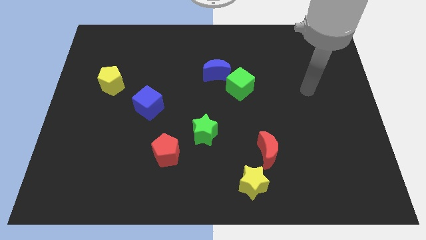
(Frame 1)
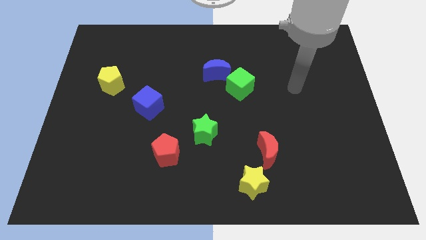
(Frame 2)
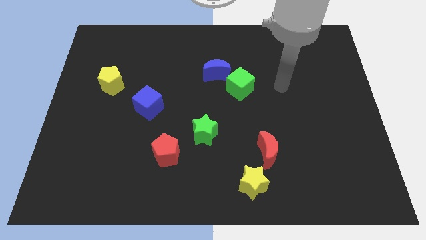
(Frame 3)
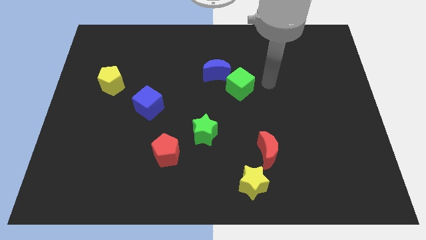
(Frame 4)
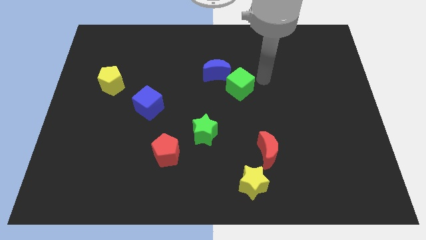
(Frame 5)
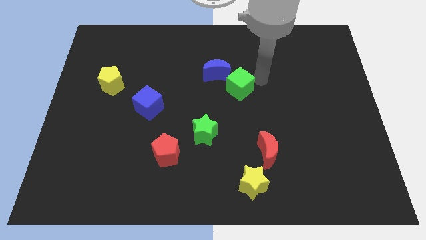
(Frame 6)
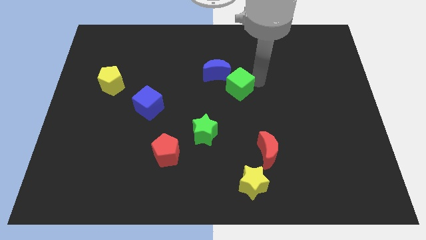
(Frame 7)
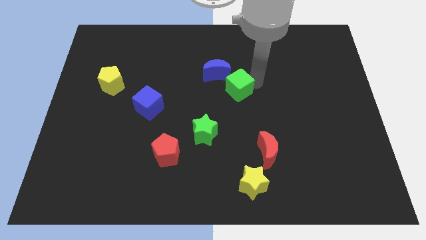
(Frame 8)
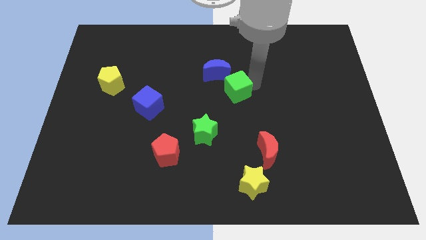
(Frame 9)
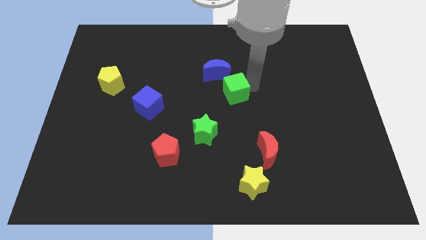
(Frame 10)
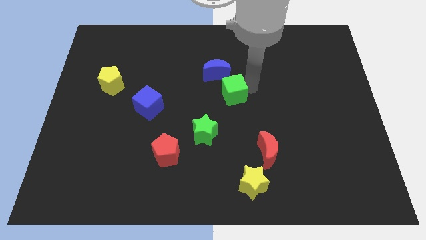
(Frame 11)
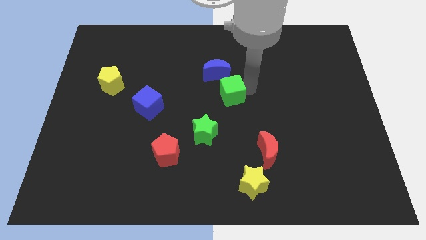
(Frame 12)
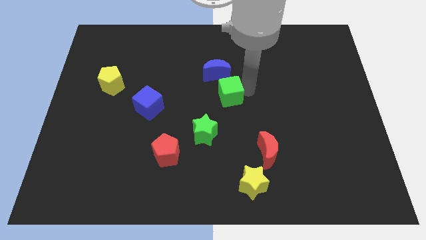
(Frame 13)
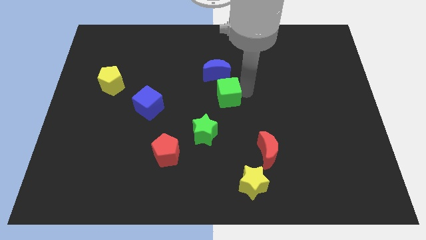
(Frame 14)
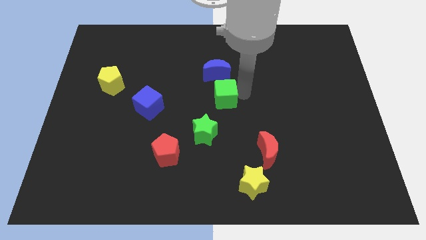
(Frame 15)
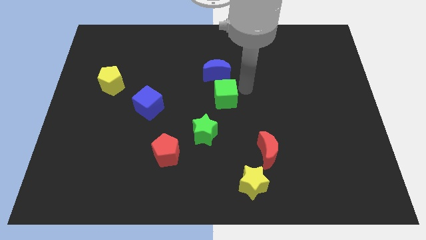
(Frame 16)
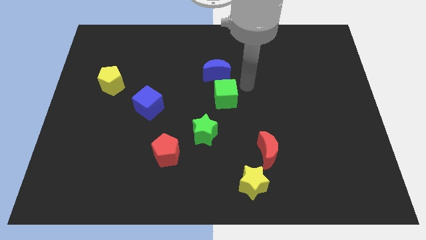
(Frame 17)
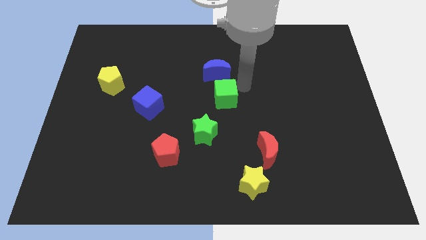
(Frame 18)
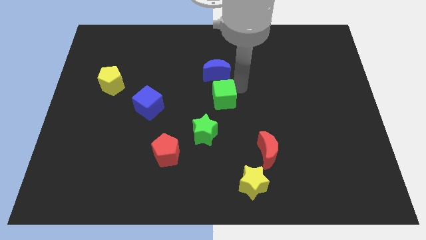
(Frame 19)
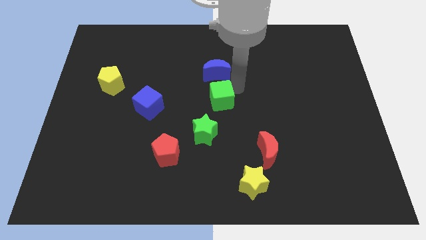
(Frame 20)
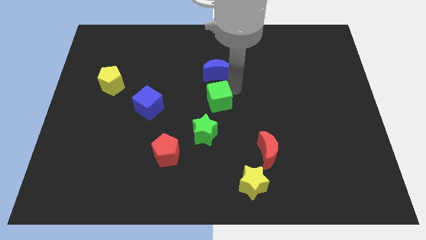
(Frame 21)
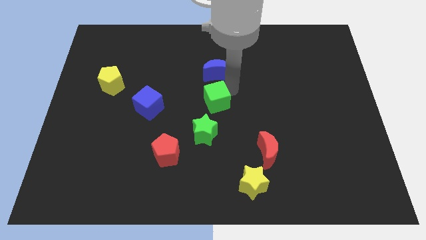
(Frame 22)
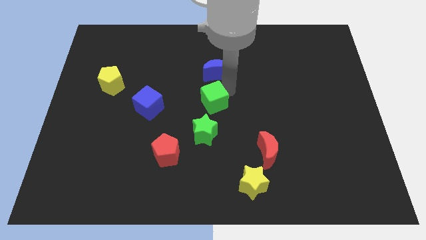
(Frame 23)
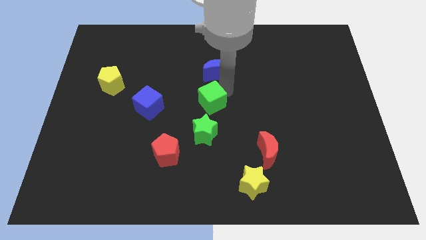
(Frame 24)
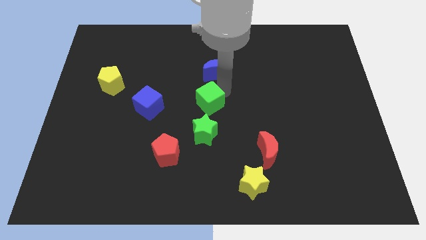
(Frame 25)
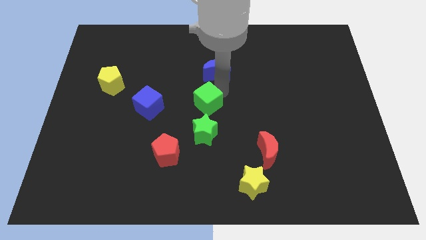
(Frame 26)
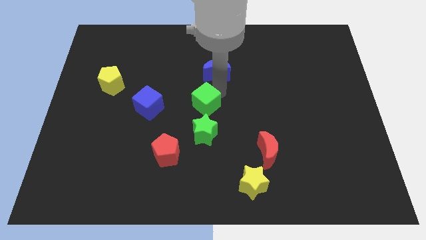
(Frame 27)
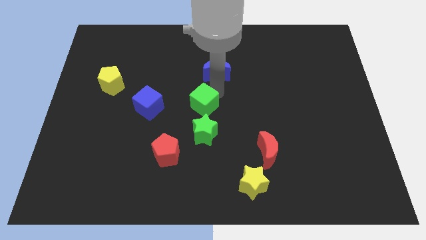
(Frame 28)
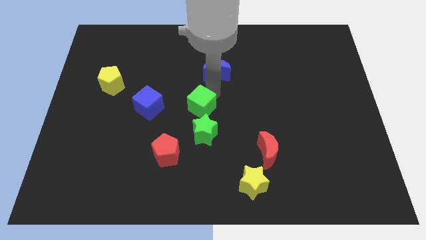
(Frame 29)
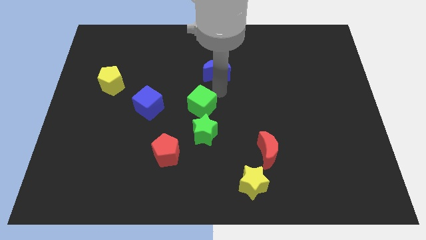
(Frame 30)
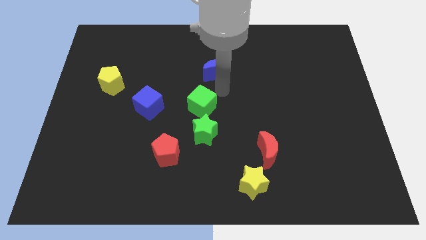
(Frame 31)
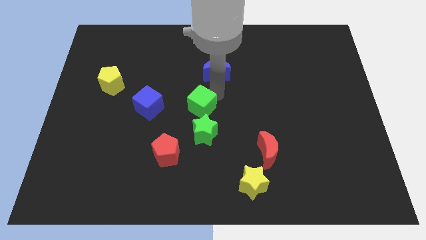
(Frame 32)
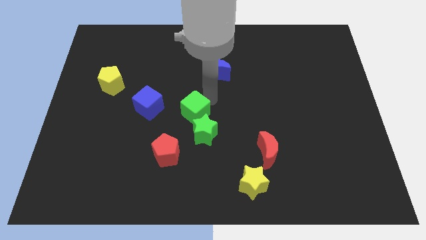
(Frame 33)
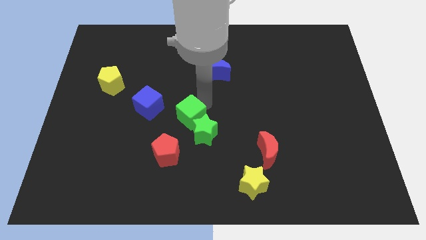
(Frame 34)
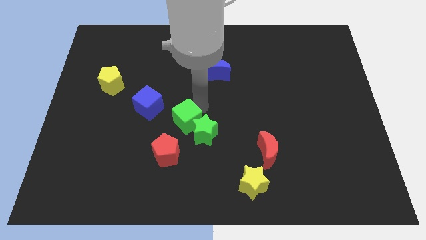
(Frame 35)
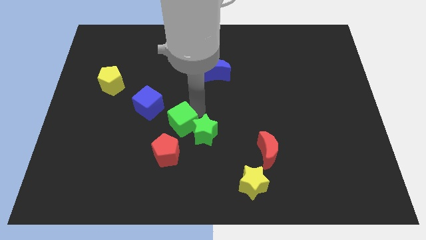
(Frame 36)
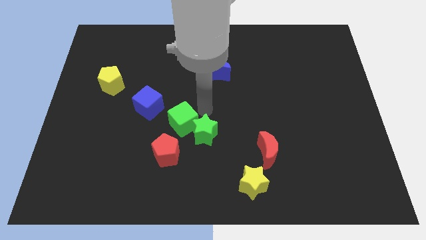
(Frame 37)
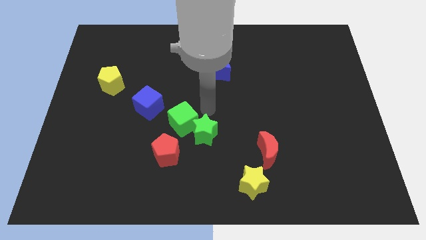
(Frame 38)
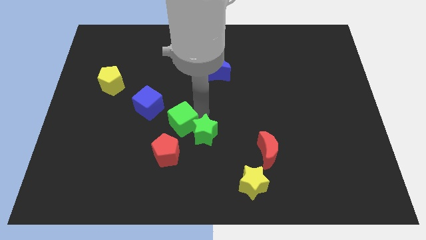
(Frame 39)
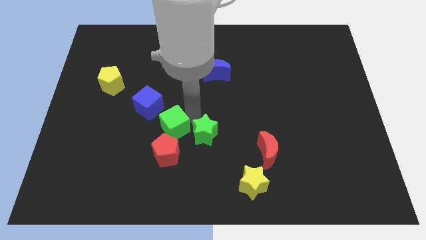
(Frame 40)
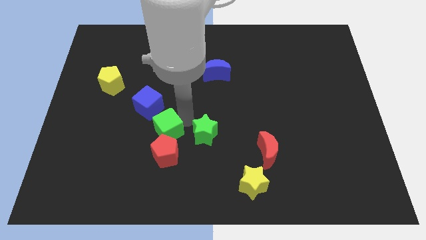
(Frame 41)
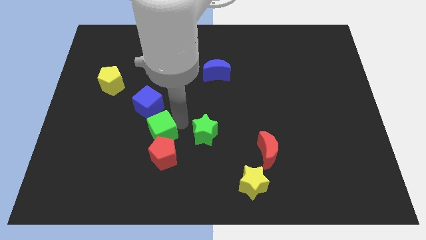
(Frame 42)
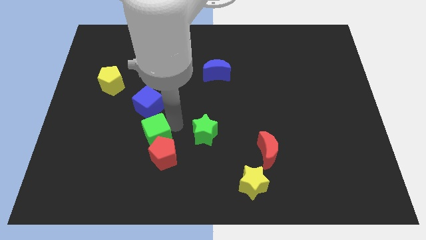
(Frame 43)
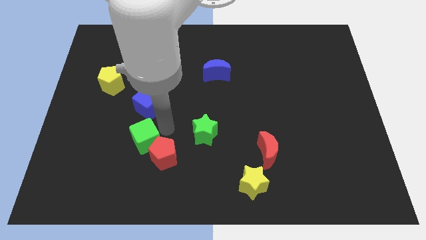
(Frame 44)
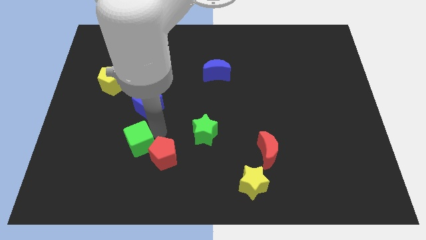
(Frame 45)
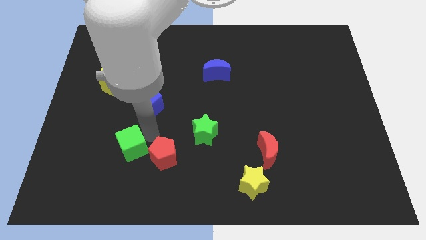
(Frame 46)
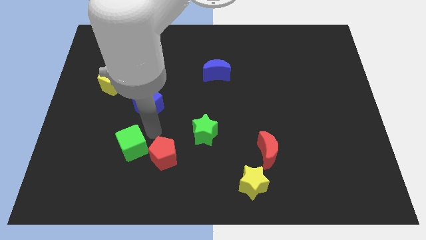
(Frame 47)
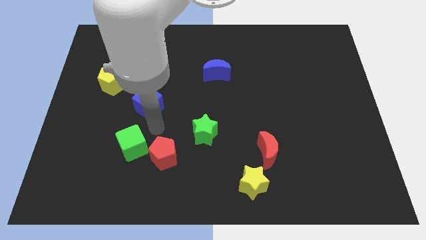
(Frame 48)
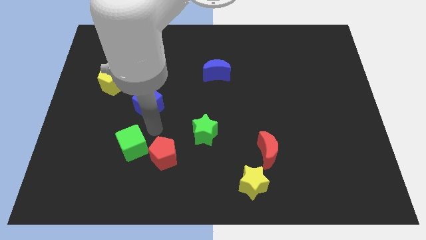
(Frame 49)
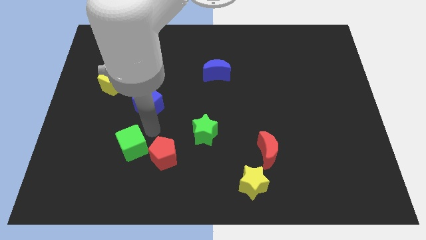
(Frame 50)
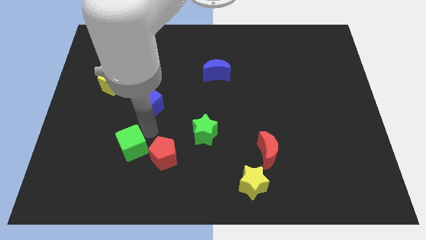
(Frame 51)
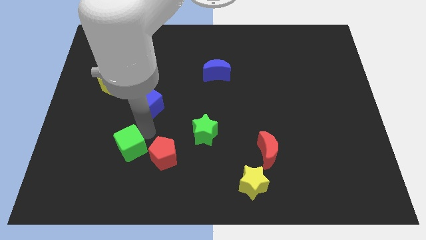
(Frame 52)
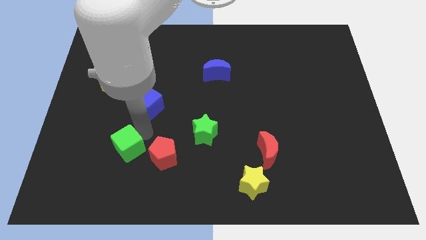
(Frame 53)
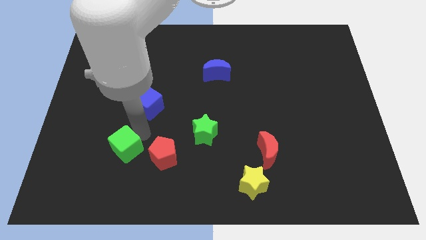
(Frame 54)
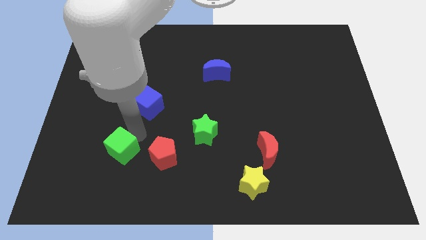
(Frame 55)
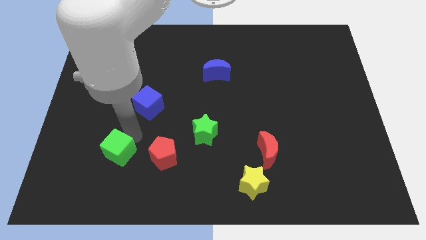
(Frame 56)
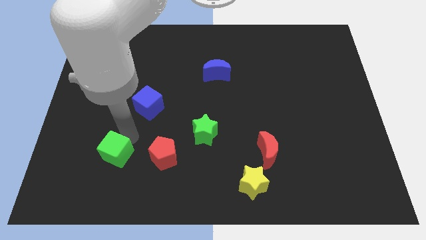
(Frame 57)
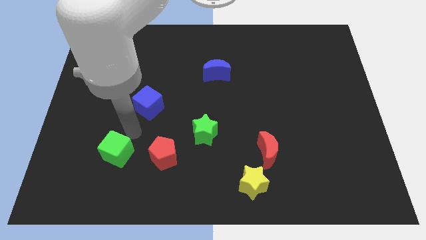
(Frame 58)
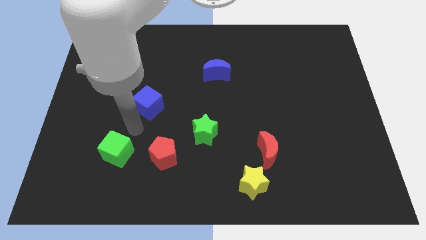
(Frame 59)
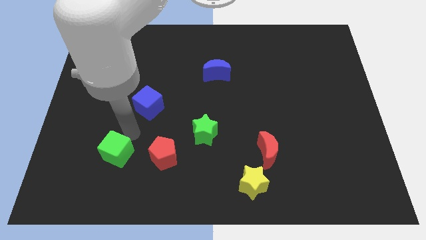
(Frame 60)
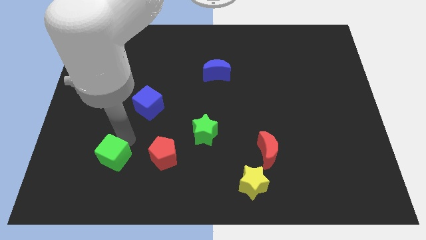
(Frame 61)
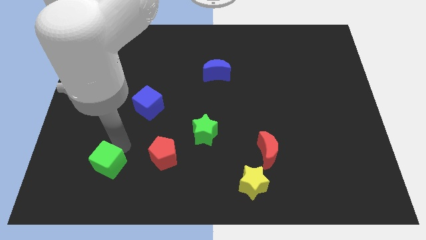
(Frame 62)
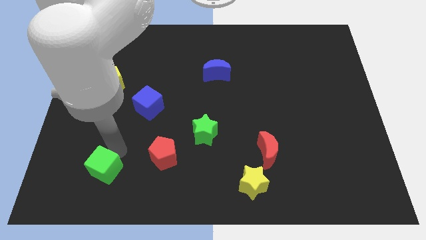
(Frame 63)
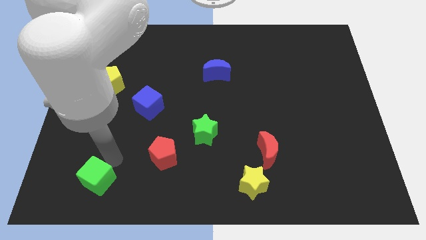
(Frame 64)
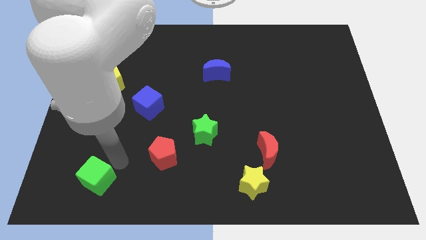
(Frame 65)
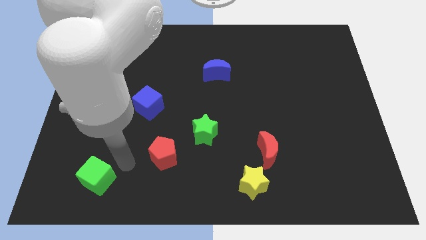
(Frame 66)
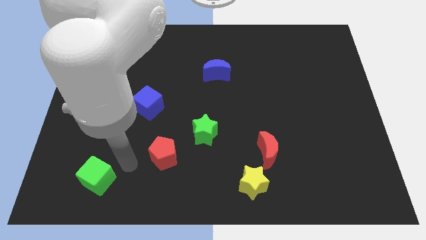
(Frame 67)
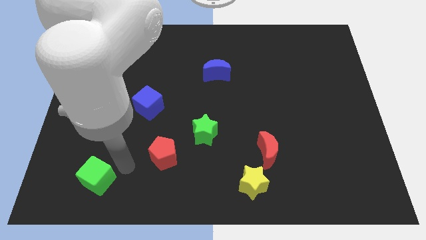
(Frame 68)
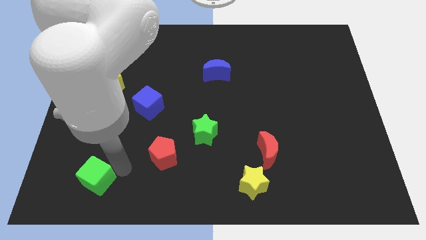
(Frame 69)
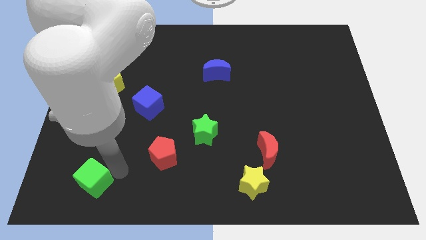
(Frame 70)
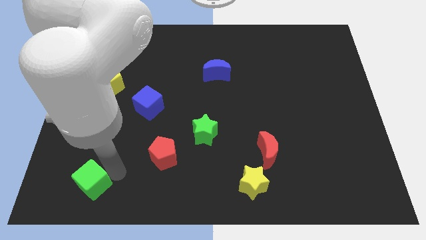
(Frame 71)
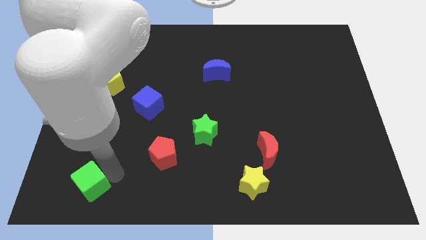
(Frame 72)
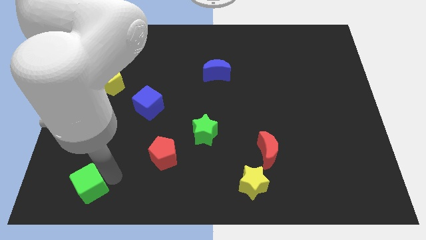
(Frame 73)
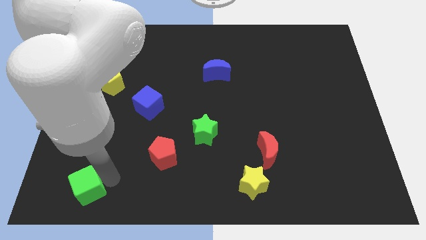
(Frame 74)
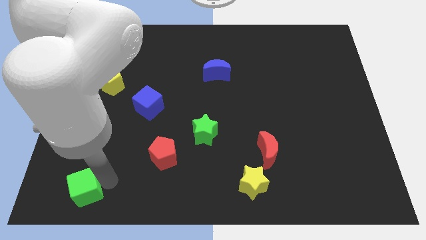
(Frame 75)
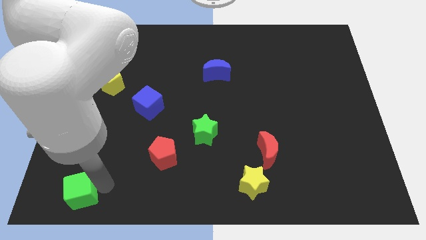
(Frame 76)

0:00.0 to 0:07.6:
push the green cube to the lower left corner
